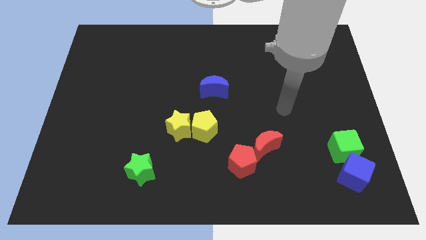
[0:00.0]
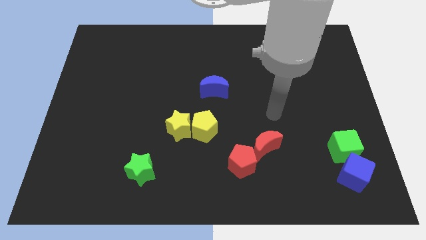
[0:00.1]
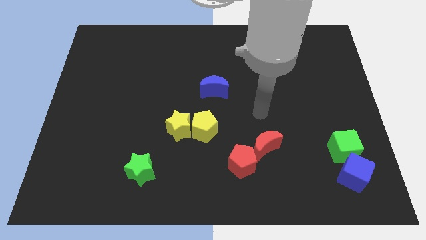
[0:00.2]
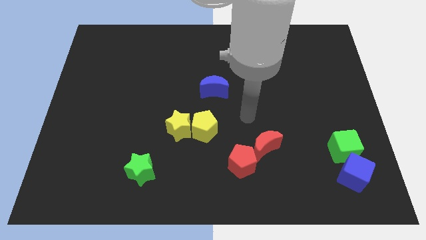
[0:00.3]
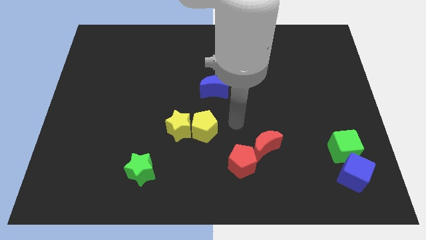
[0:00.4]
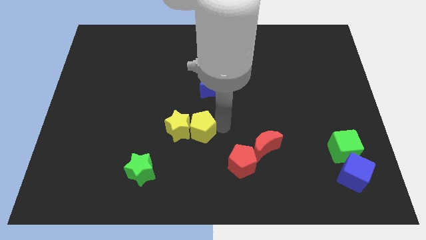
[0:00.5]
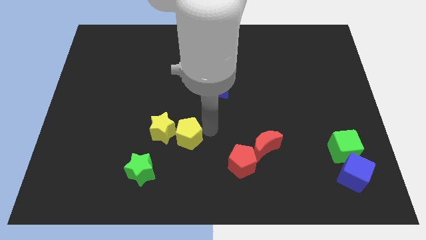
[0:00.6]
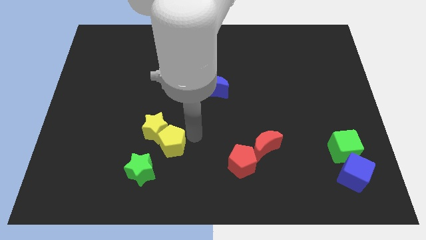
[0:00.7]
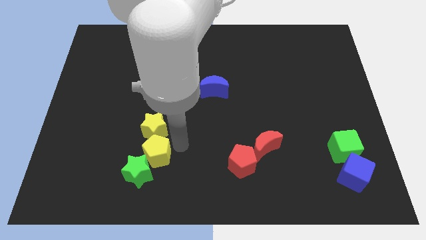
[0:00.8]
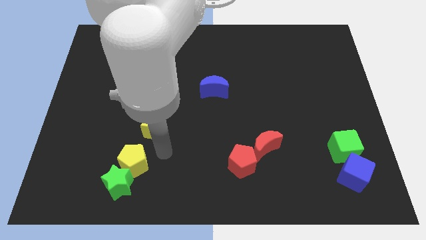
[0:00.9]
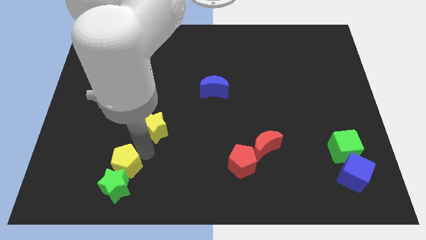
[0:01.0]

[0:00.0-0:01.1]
pull the yellow star apart from the yellow pentagon

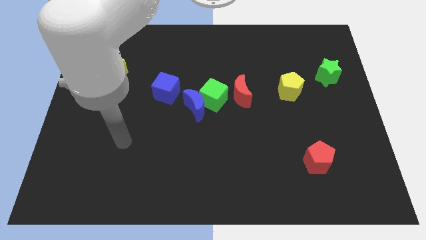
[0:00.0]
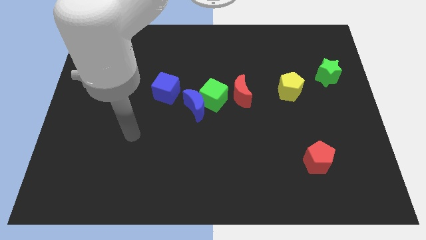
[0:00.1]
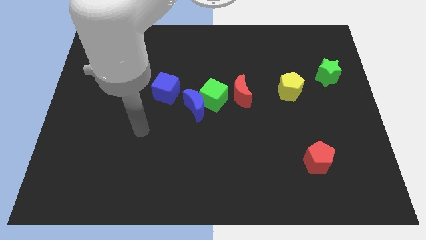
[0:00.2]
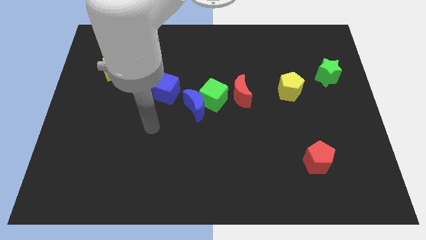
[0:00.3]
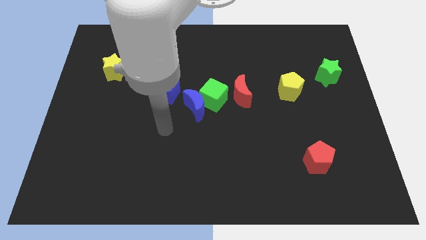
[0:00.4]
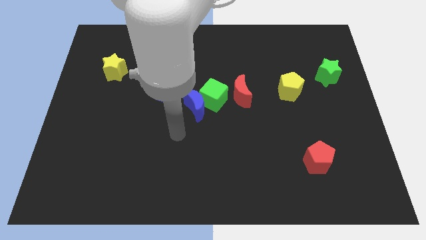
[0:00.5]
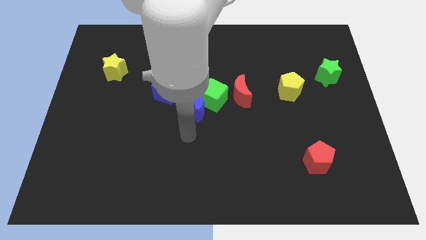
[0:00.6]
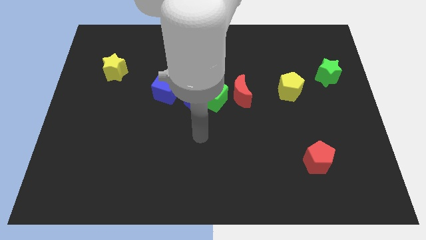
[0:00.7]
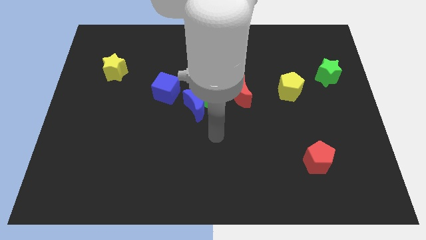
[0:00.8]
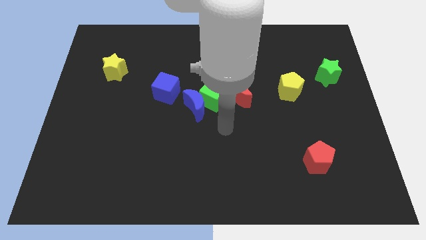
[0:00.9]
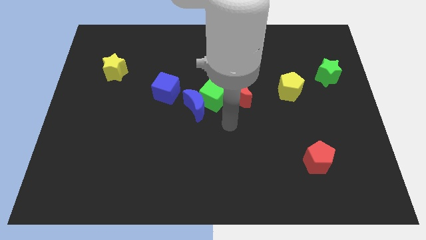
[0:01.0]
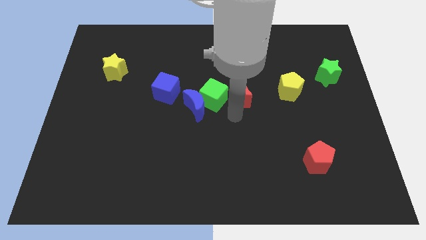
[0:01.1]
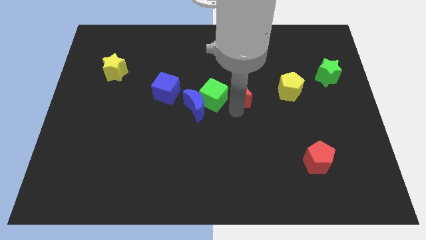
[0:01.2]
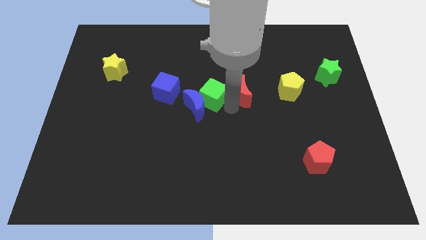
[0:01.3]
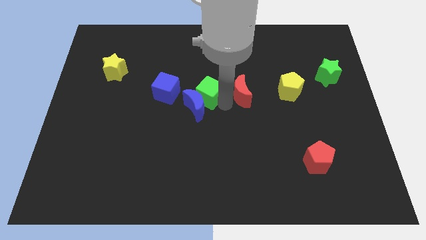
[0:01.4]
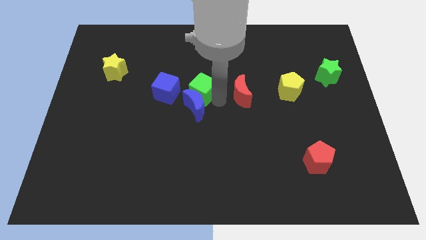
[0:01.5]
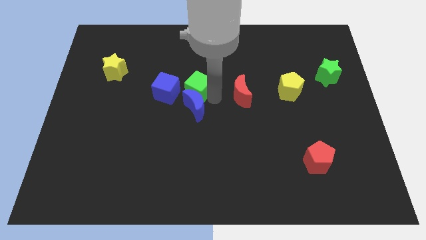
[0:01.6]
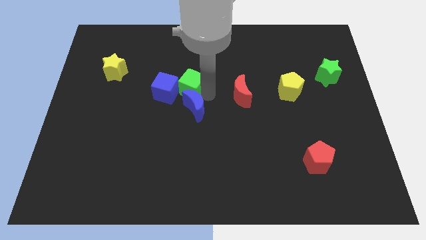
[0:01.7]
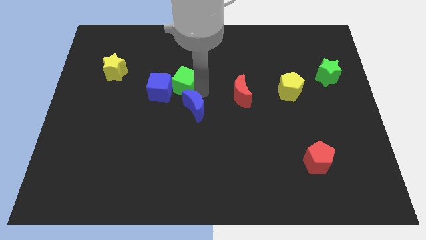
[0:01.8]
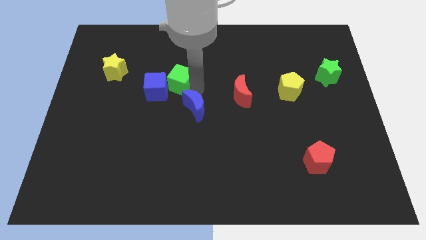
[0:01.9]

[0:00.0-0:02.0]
separate the green cube from the blue moon and red moon

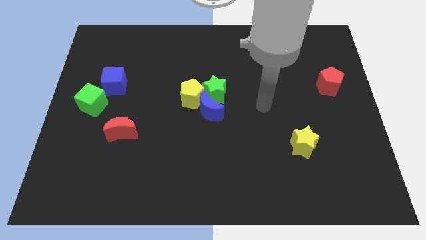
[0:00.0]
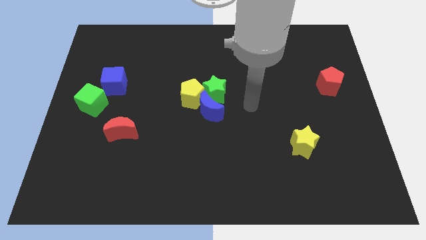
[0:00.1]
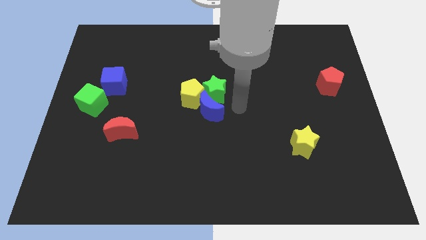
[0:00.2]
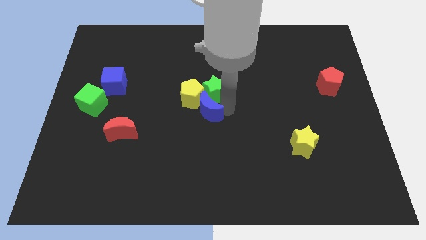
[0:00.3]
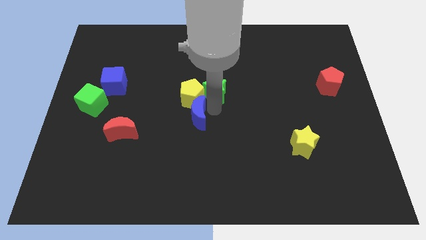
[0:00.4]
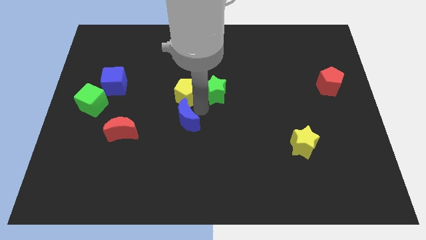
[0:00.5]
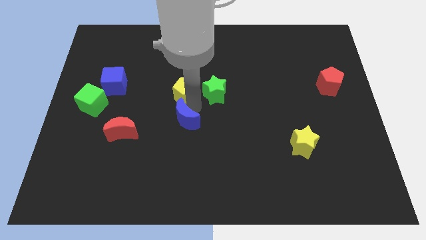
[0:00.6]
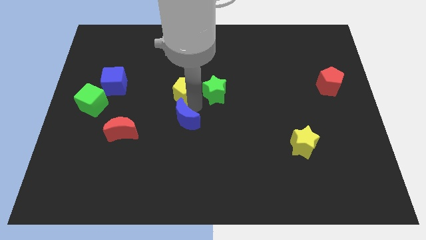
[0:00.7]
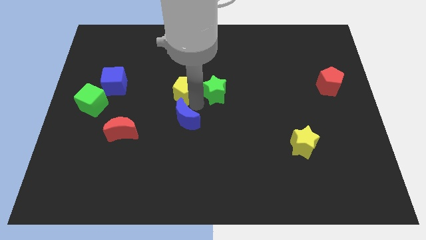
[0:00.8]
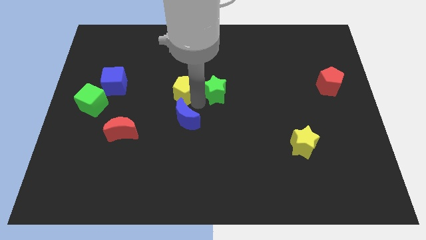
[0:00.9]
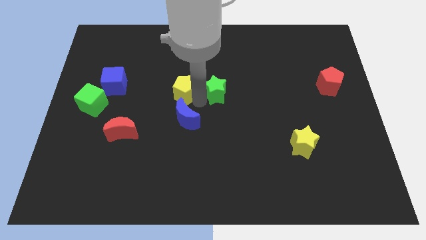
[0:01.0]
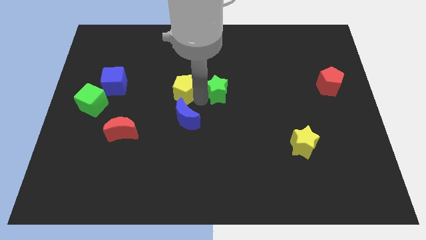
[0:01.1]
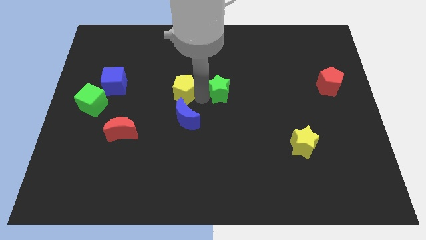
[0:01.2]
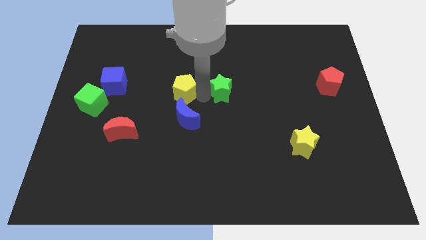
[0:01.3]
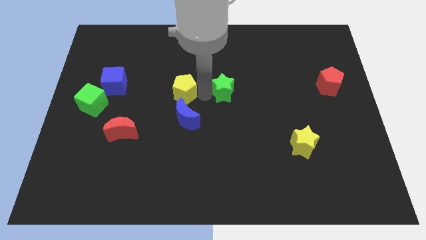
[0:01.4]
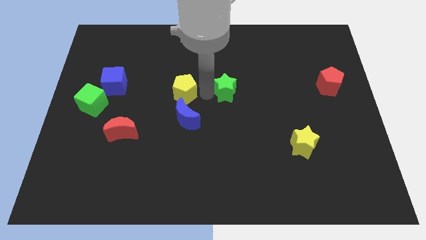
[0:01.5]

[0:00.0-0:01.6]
pull the green star apart from the blue moon and yellow pentagon

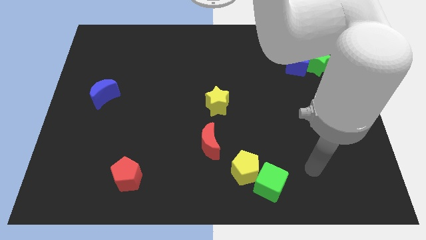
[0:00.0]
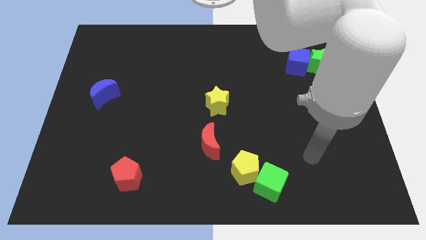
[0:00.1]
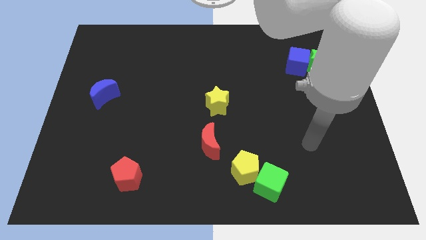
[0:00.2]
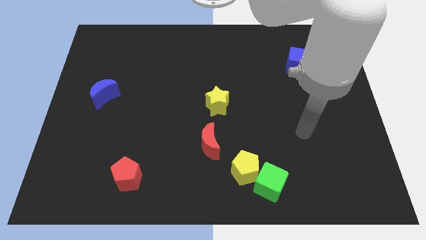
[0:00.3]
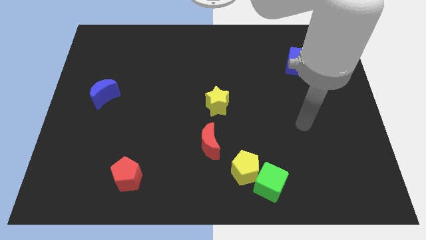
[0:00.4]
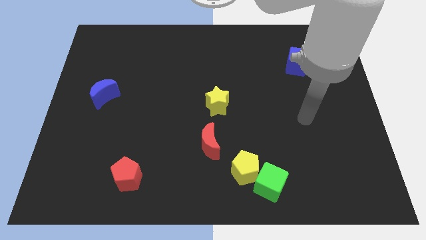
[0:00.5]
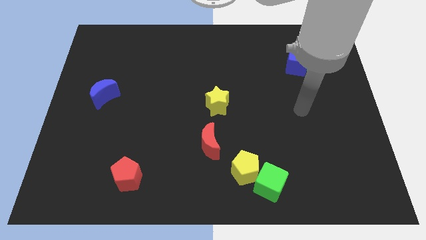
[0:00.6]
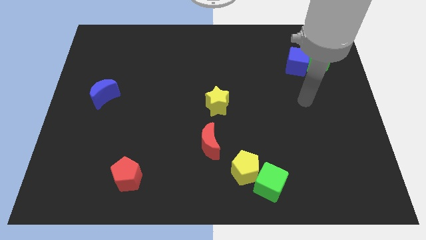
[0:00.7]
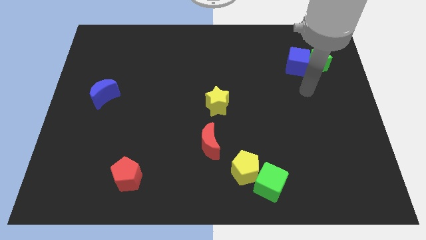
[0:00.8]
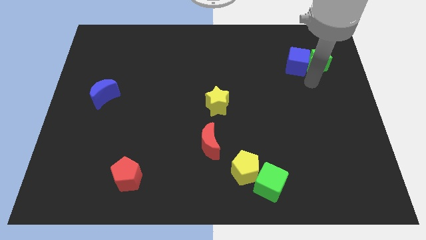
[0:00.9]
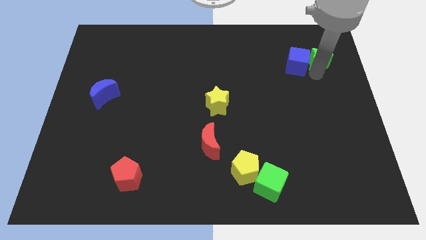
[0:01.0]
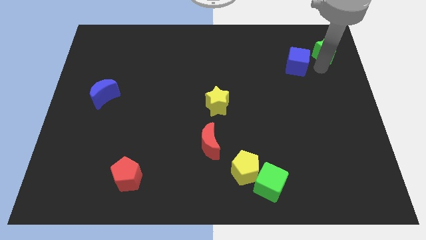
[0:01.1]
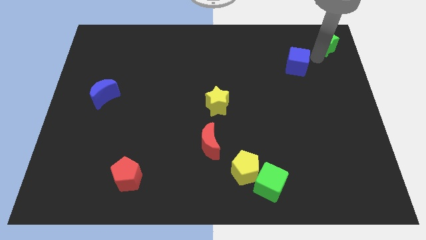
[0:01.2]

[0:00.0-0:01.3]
separate the blue cube from the green star

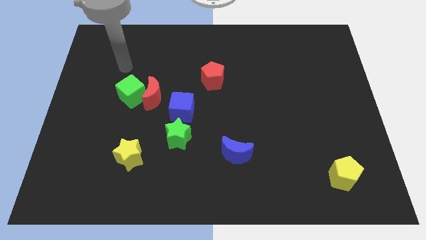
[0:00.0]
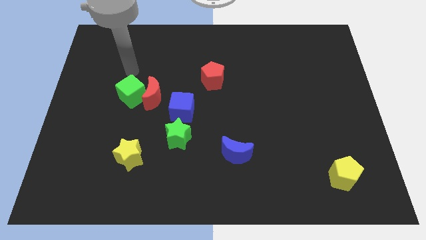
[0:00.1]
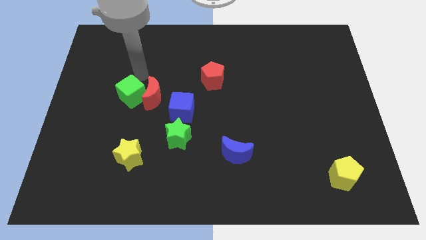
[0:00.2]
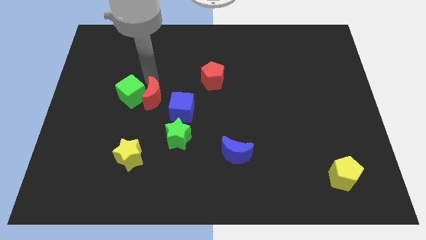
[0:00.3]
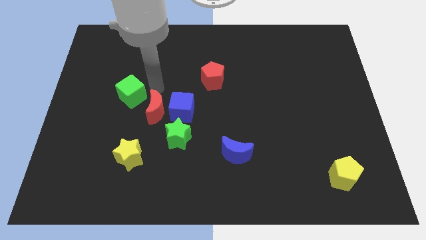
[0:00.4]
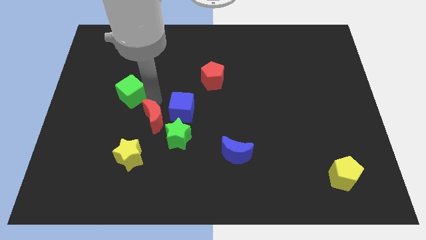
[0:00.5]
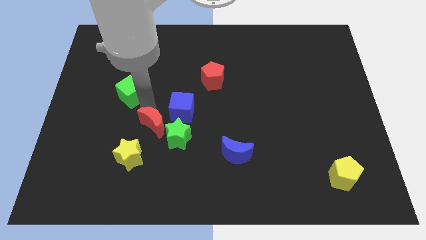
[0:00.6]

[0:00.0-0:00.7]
move the green cube away from the red moon

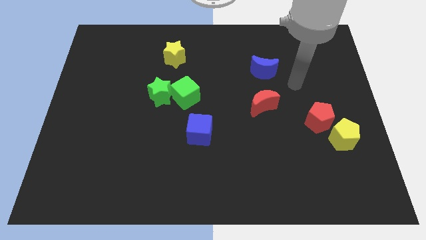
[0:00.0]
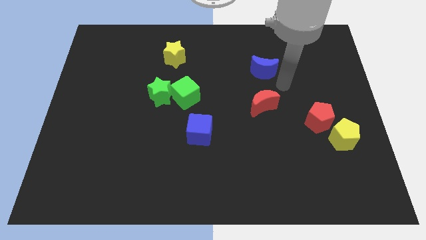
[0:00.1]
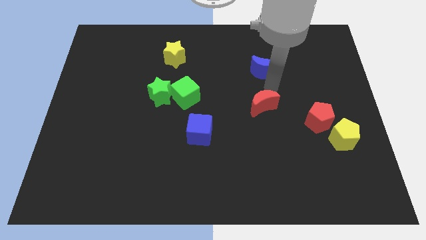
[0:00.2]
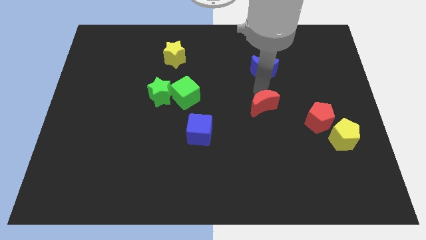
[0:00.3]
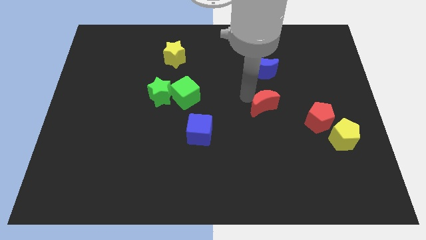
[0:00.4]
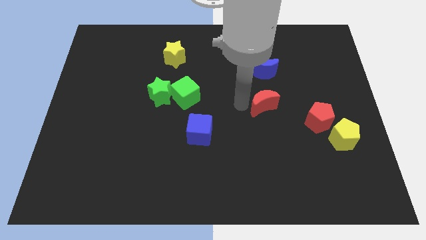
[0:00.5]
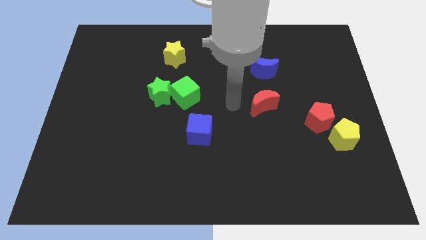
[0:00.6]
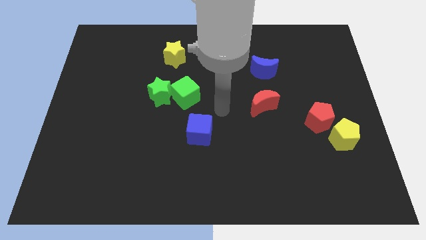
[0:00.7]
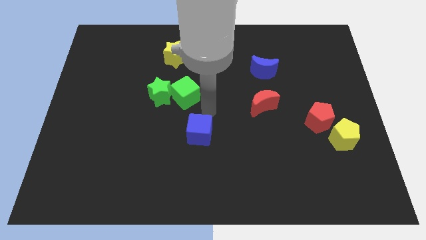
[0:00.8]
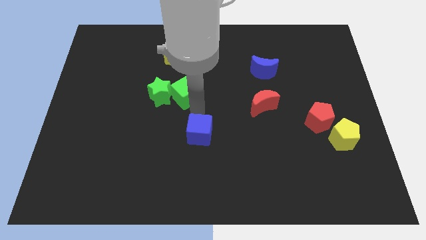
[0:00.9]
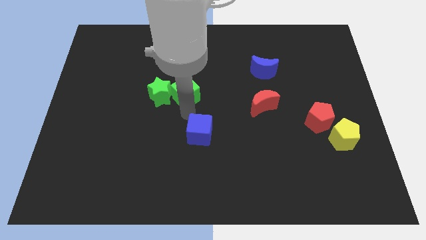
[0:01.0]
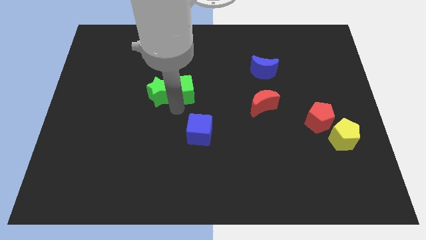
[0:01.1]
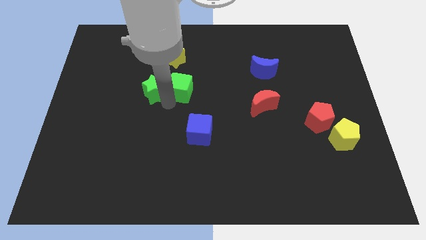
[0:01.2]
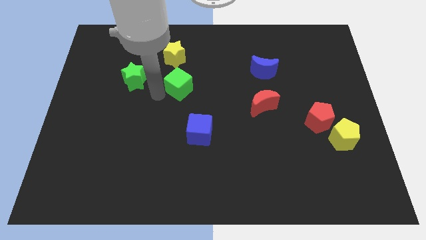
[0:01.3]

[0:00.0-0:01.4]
move the green cube away from the green star

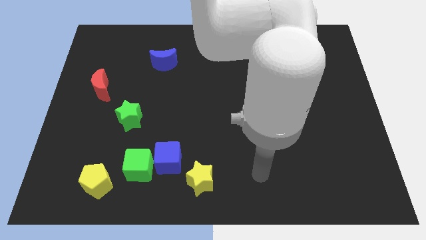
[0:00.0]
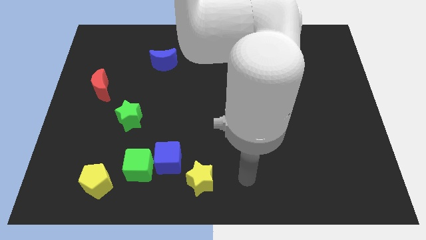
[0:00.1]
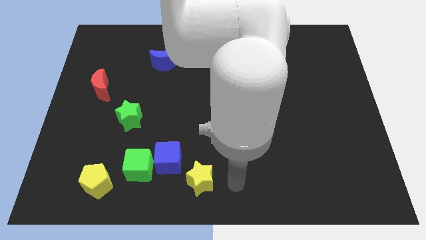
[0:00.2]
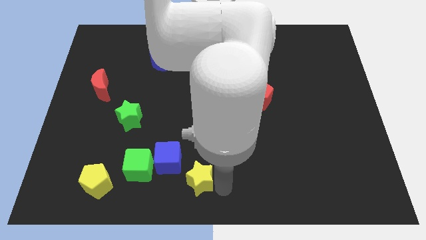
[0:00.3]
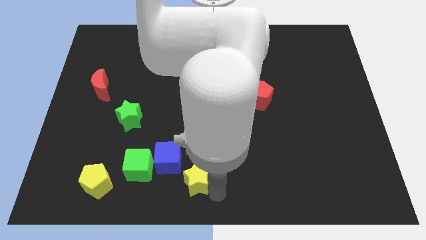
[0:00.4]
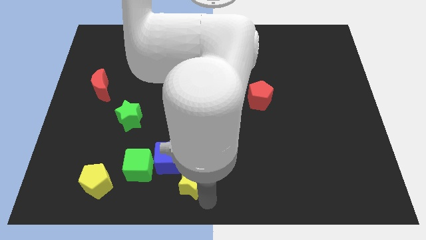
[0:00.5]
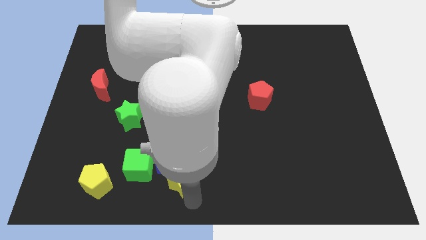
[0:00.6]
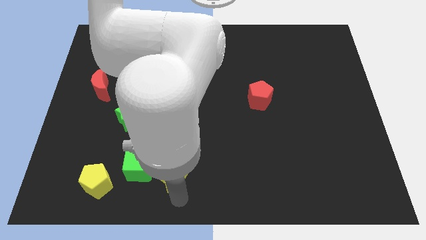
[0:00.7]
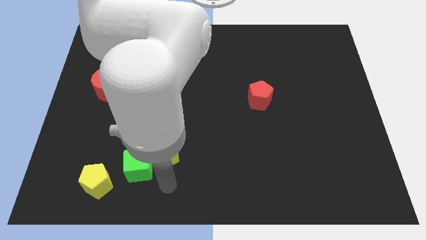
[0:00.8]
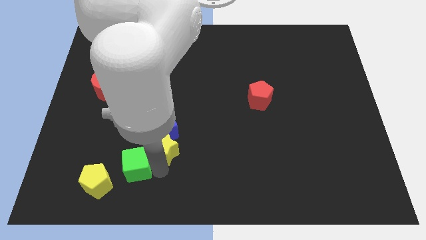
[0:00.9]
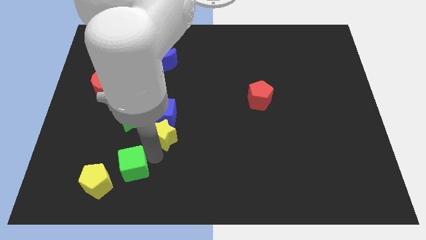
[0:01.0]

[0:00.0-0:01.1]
separate the blue cube from the green cube and yellow star
